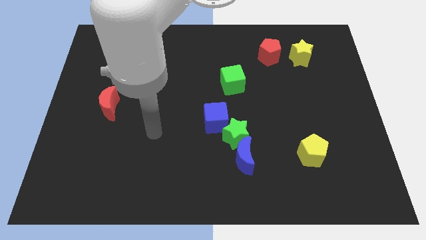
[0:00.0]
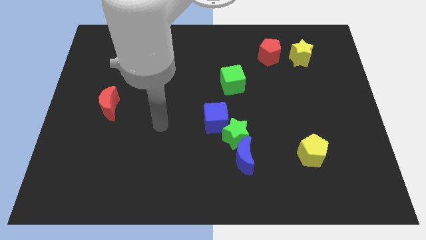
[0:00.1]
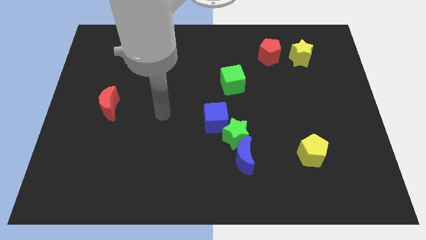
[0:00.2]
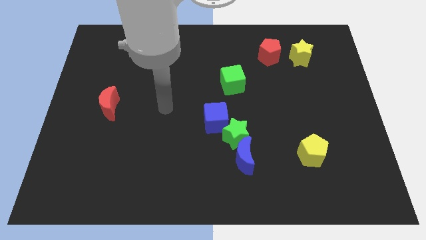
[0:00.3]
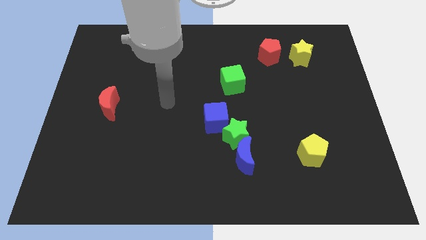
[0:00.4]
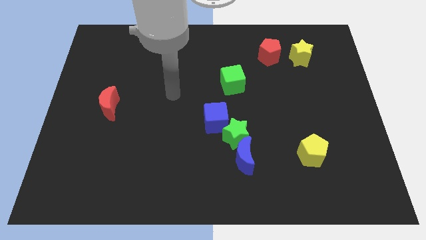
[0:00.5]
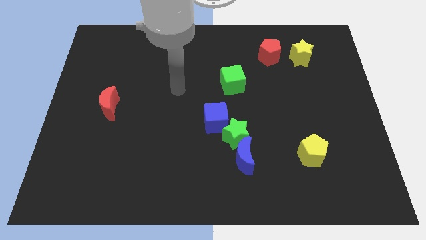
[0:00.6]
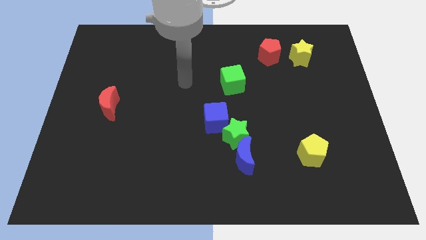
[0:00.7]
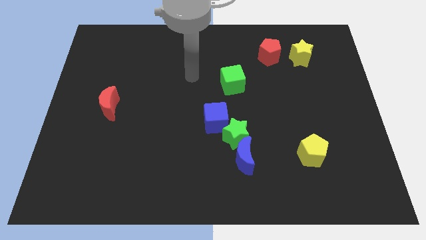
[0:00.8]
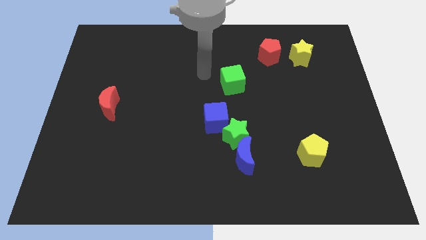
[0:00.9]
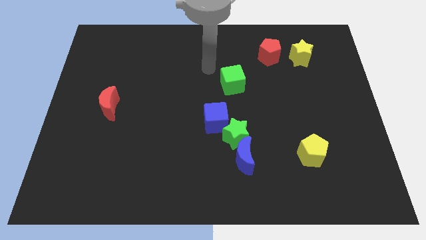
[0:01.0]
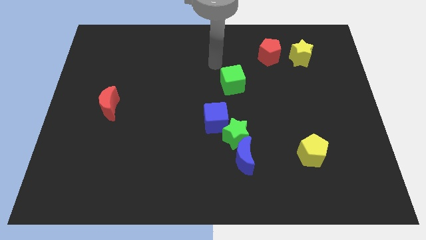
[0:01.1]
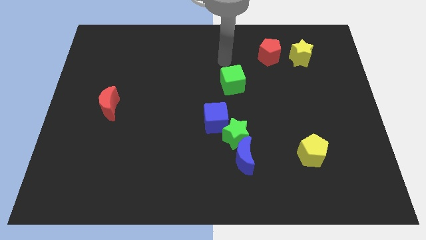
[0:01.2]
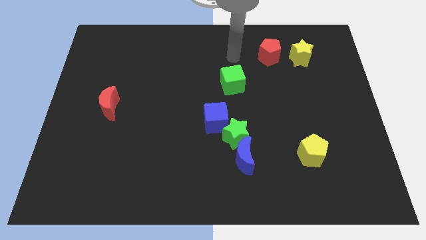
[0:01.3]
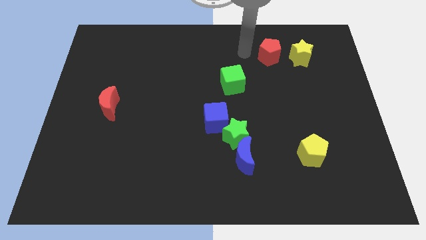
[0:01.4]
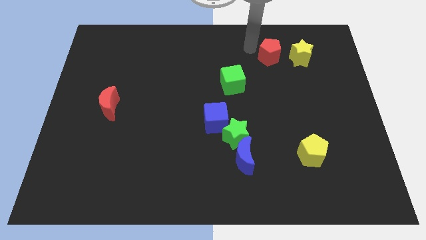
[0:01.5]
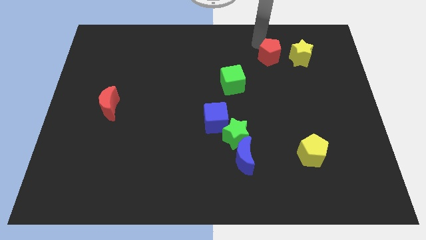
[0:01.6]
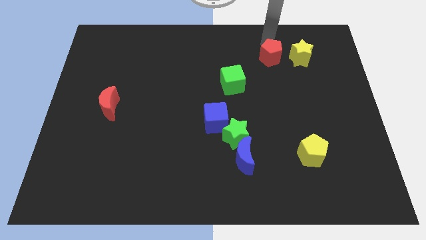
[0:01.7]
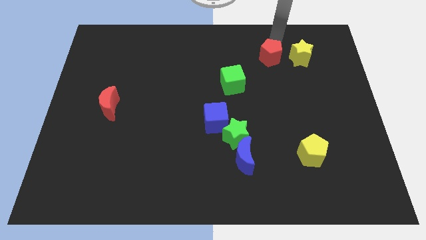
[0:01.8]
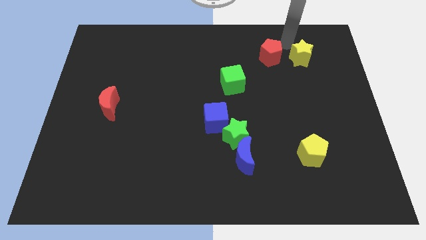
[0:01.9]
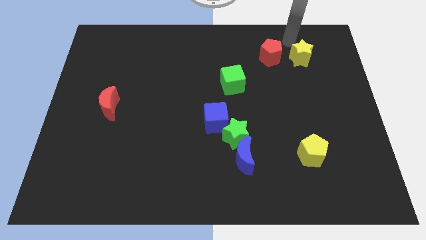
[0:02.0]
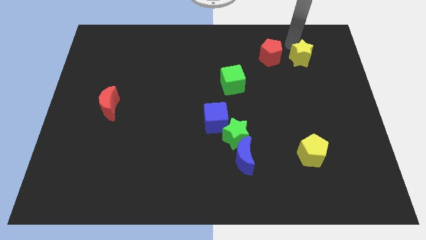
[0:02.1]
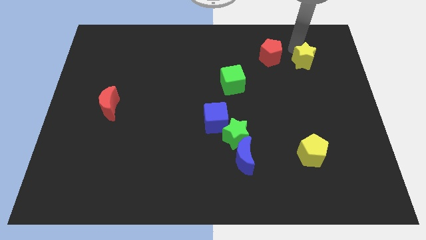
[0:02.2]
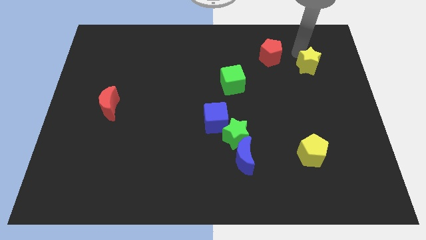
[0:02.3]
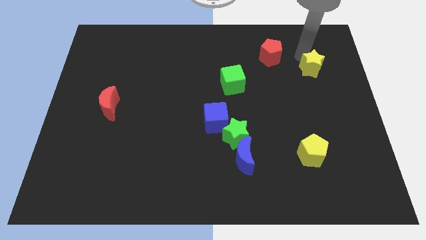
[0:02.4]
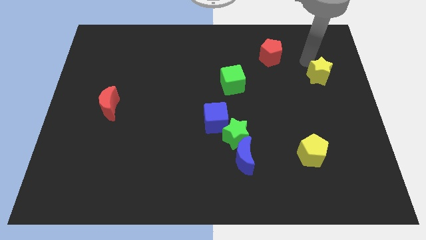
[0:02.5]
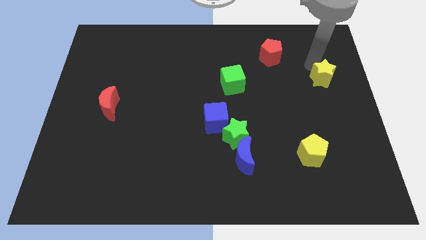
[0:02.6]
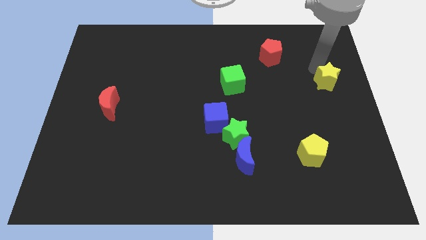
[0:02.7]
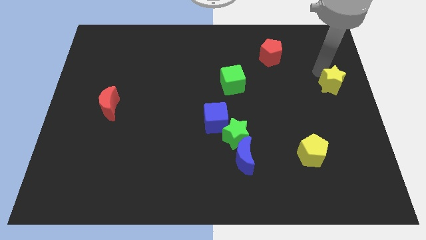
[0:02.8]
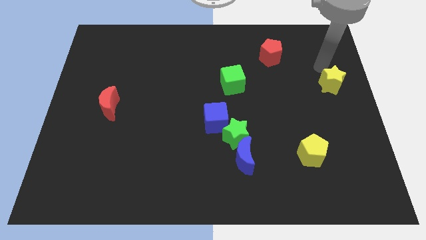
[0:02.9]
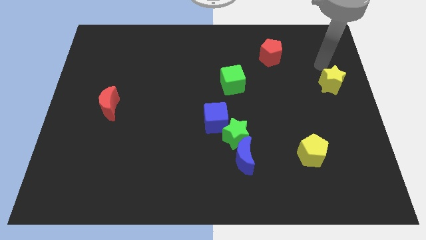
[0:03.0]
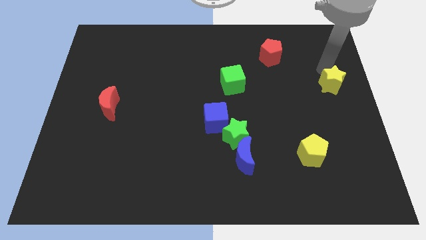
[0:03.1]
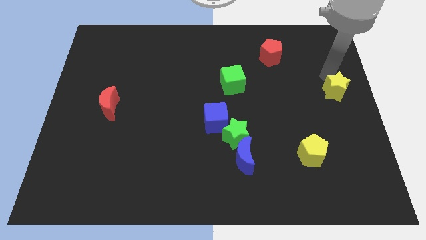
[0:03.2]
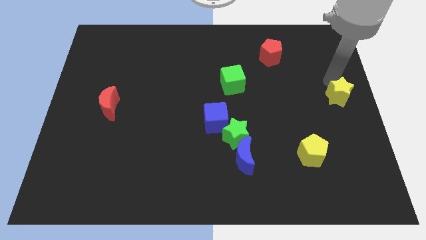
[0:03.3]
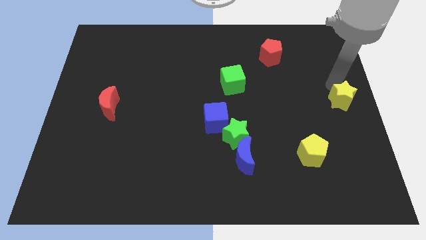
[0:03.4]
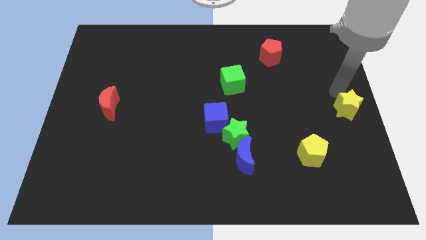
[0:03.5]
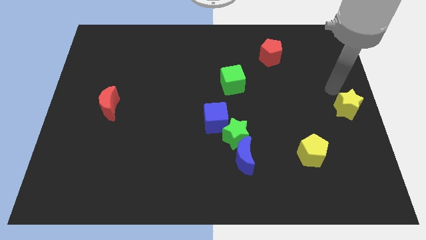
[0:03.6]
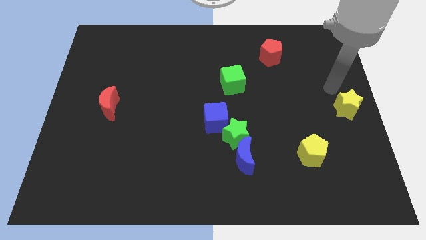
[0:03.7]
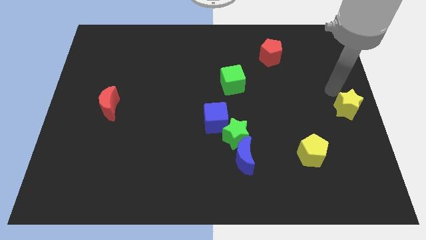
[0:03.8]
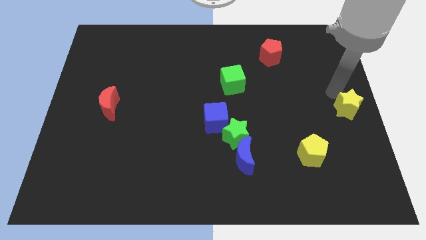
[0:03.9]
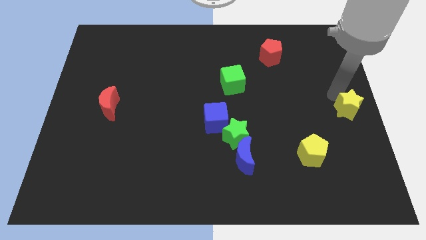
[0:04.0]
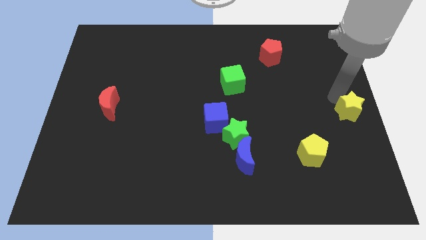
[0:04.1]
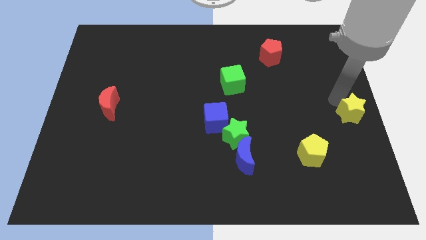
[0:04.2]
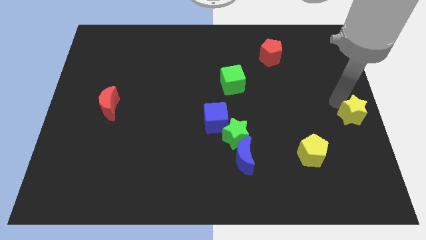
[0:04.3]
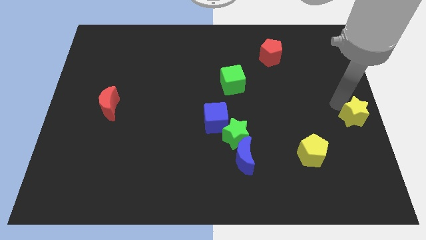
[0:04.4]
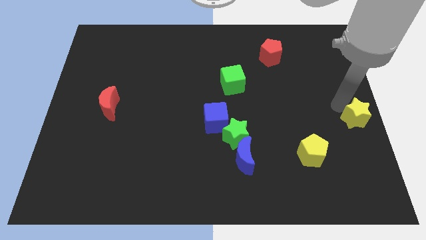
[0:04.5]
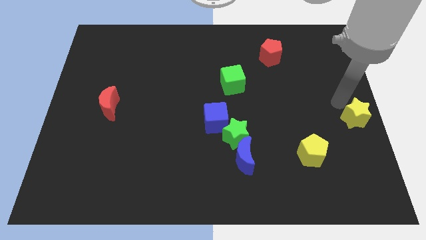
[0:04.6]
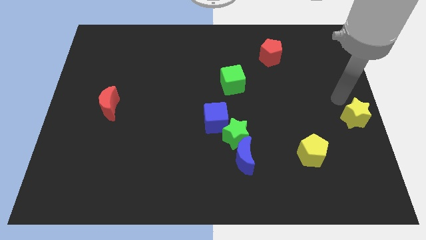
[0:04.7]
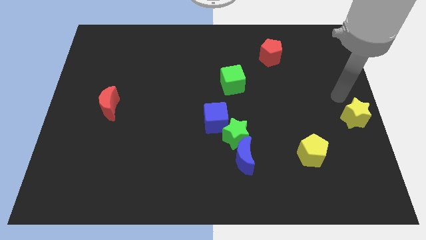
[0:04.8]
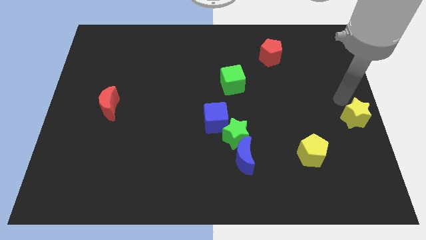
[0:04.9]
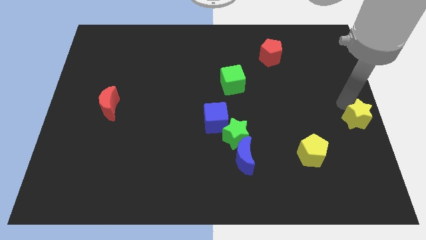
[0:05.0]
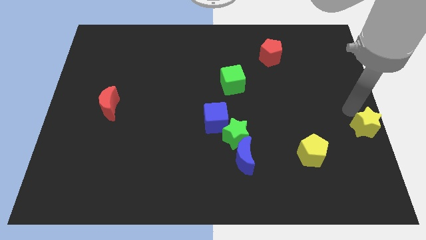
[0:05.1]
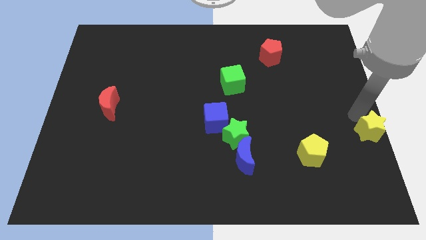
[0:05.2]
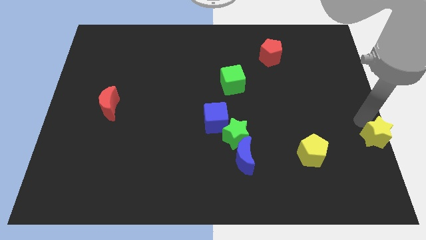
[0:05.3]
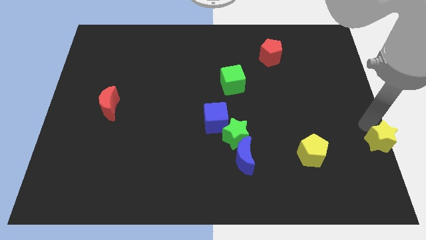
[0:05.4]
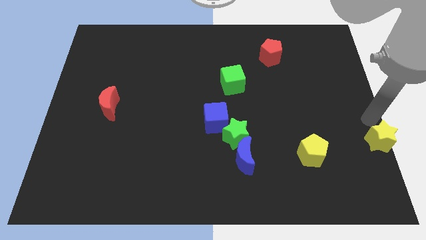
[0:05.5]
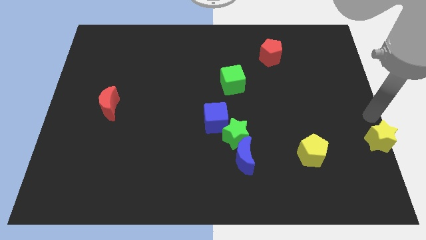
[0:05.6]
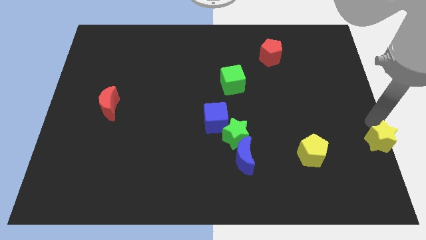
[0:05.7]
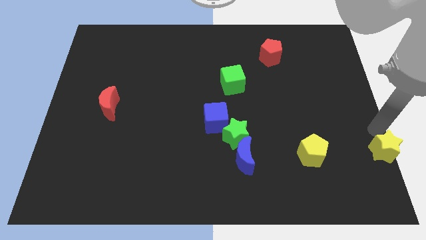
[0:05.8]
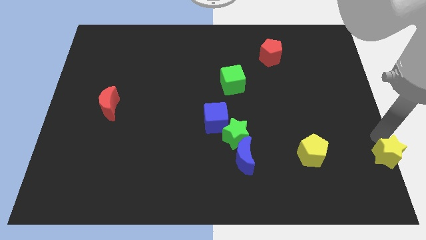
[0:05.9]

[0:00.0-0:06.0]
slide the yellow star to the bottom right

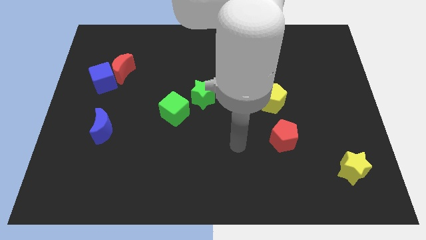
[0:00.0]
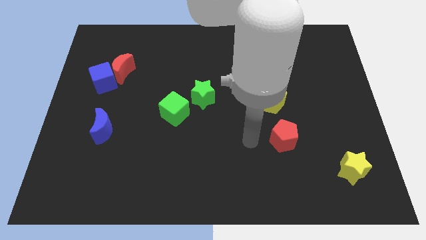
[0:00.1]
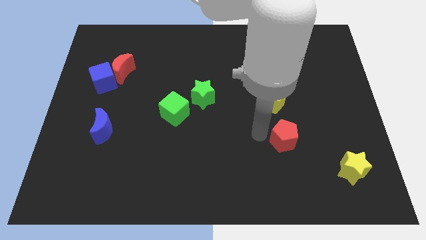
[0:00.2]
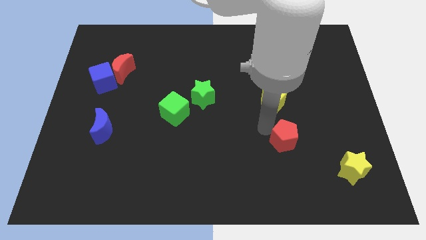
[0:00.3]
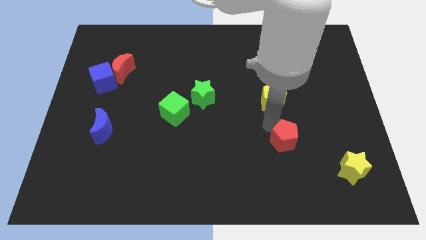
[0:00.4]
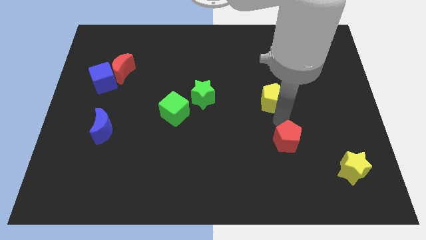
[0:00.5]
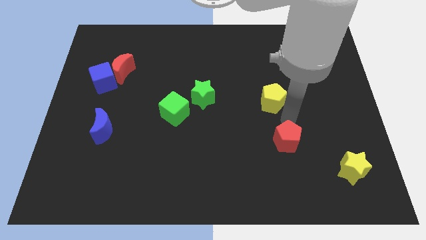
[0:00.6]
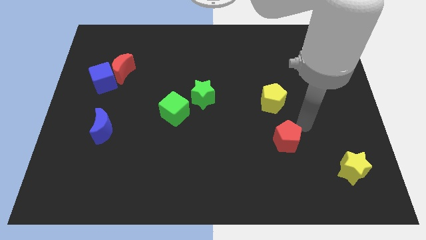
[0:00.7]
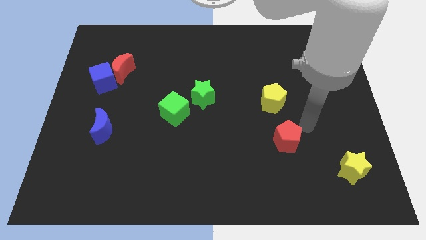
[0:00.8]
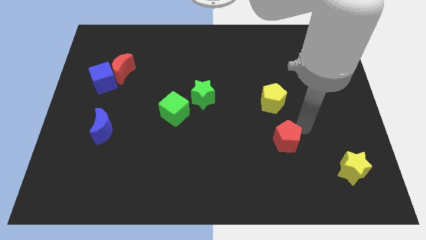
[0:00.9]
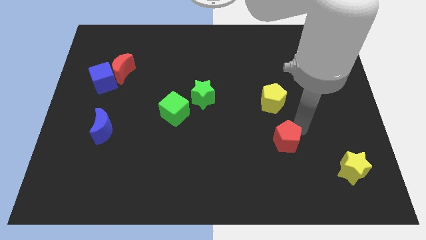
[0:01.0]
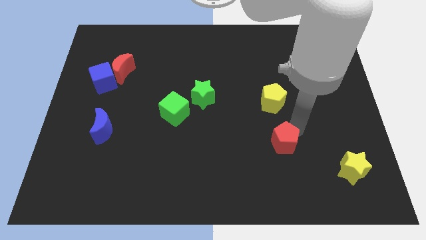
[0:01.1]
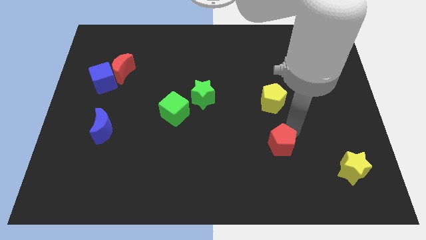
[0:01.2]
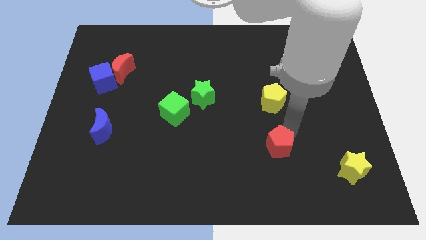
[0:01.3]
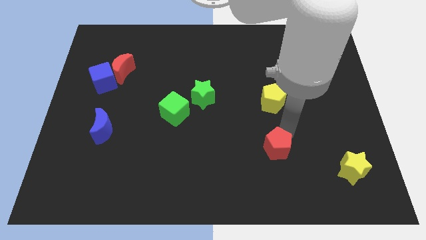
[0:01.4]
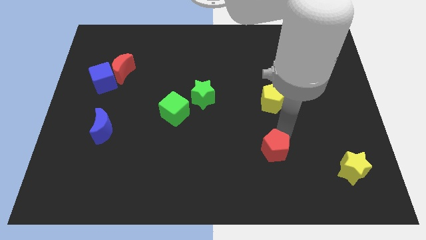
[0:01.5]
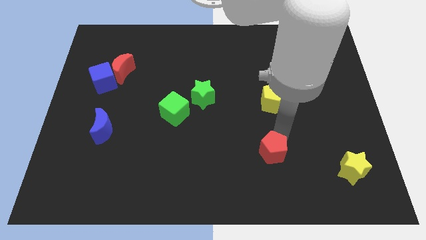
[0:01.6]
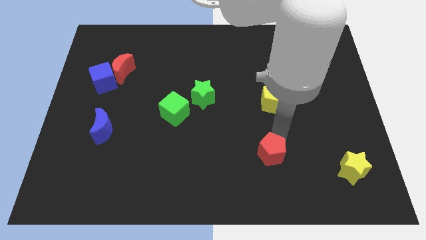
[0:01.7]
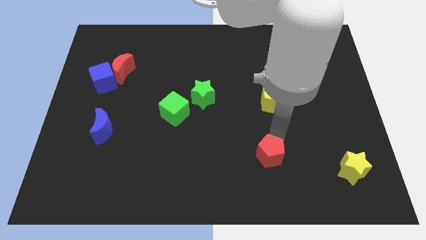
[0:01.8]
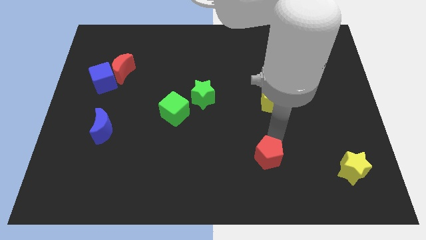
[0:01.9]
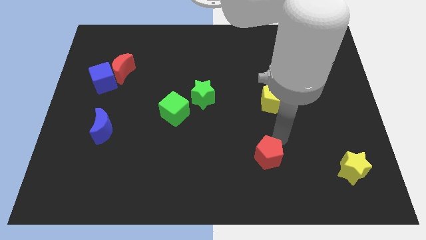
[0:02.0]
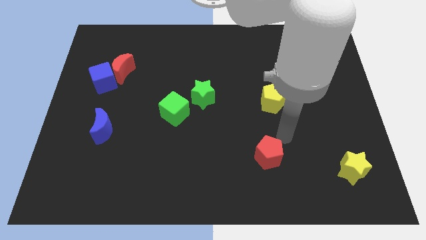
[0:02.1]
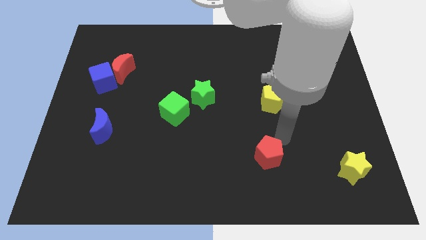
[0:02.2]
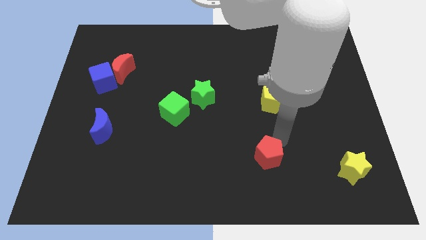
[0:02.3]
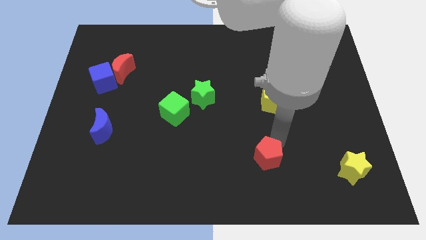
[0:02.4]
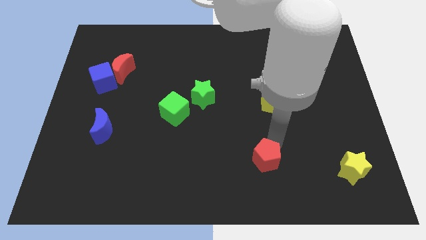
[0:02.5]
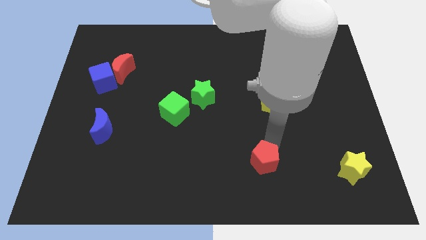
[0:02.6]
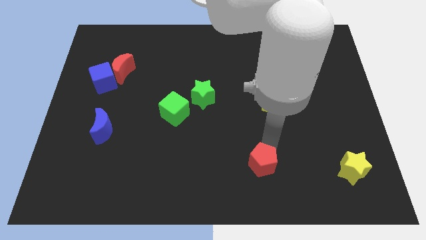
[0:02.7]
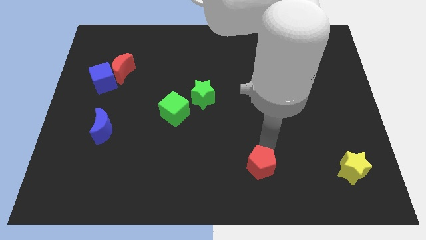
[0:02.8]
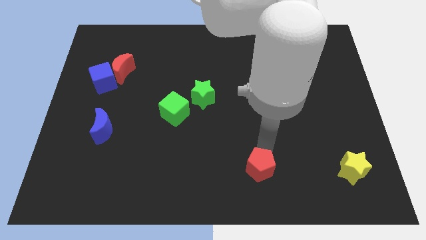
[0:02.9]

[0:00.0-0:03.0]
slide the red pentagon to the bottom
